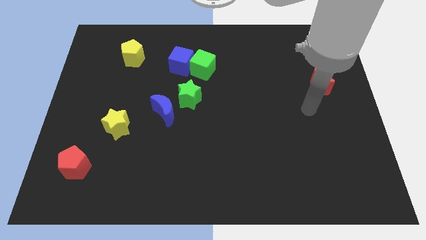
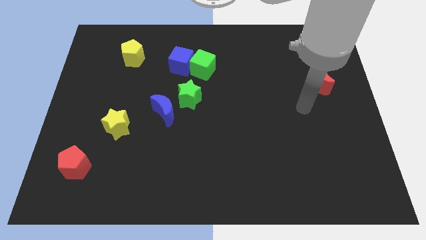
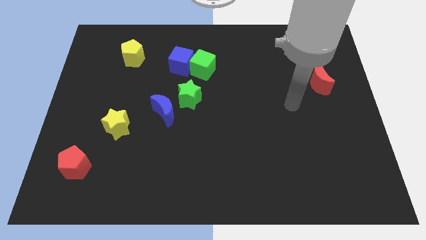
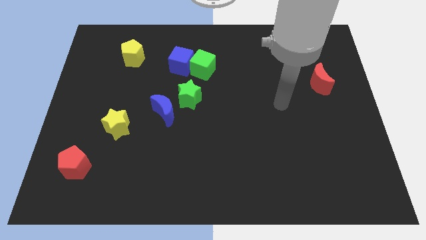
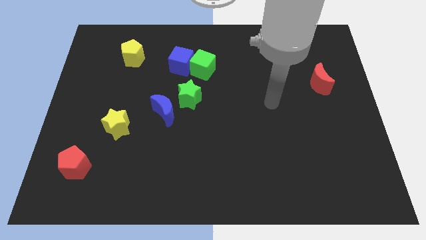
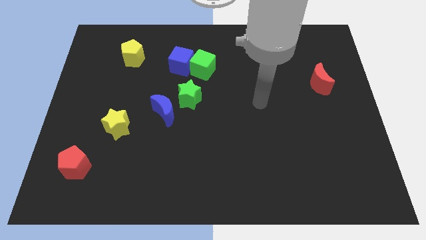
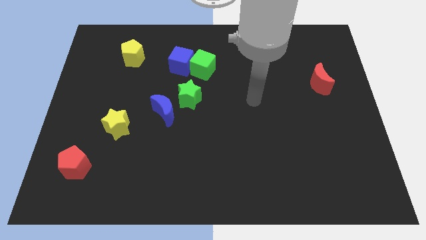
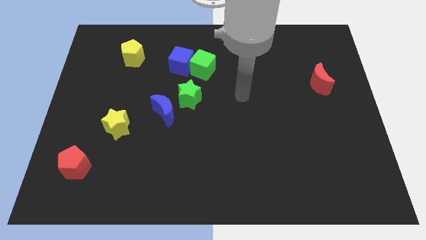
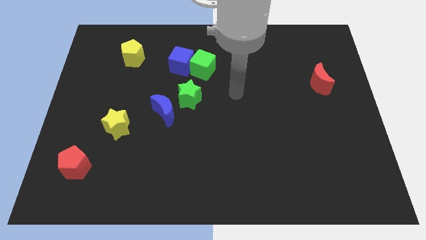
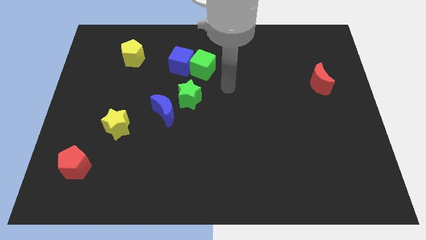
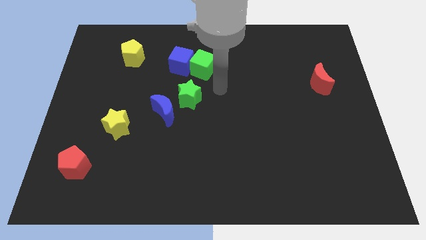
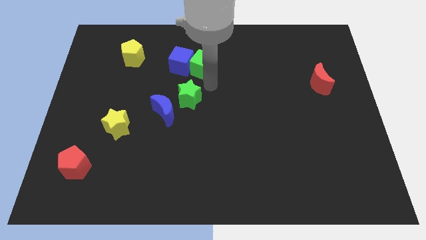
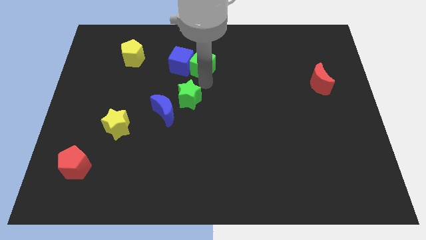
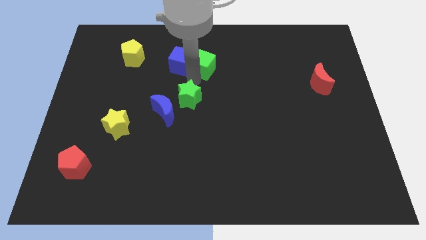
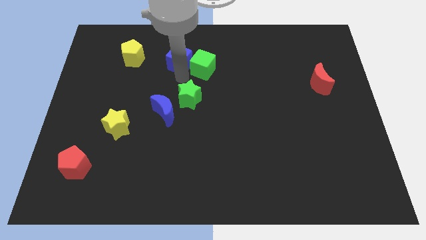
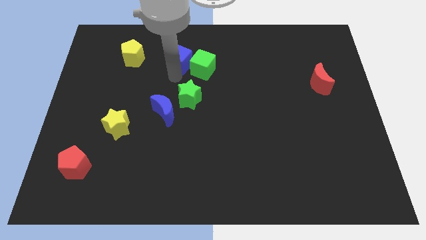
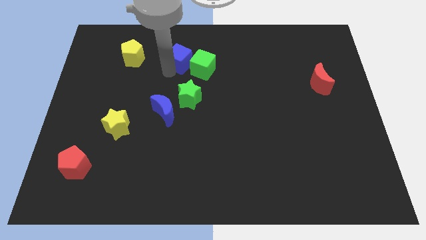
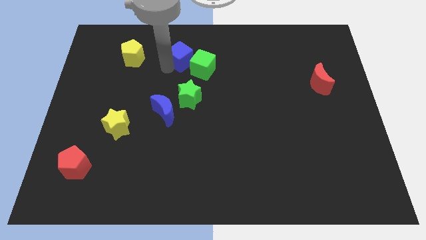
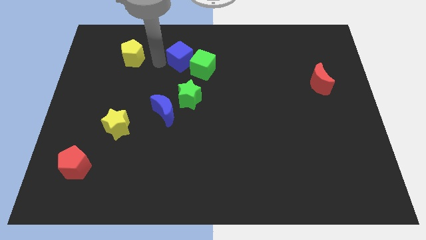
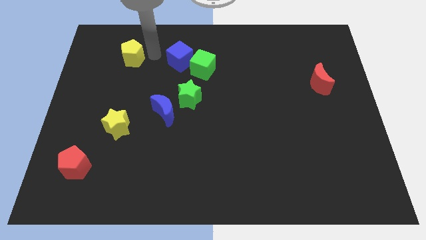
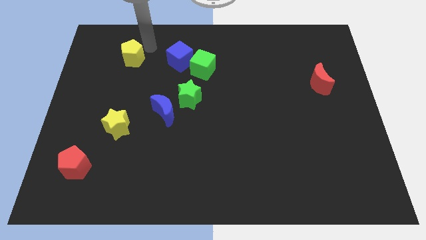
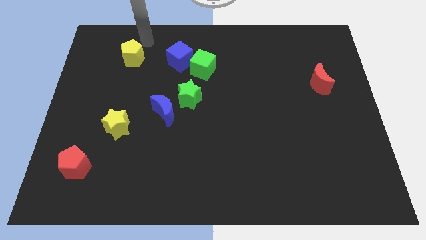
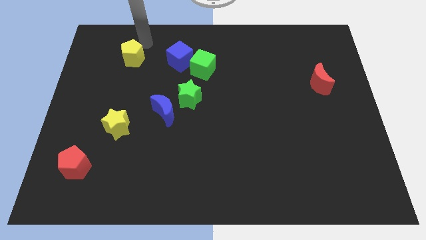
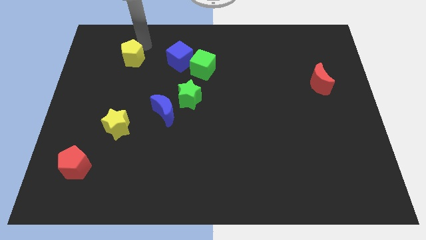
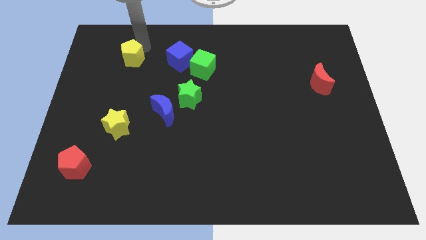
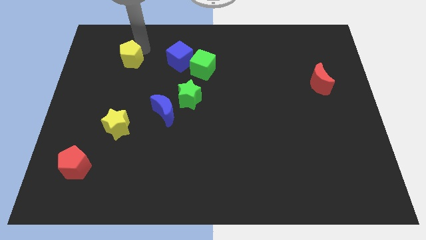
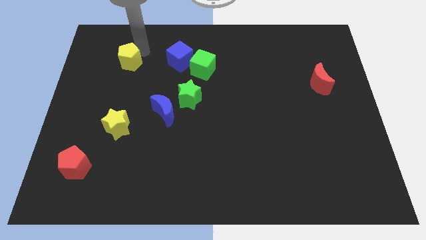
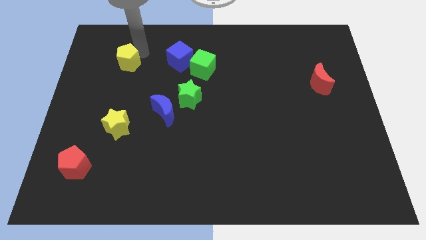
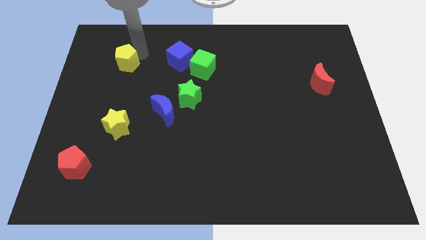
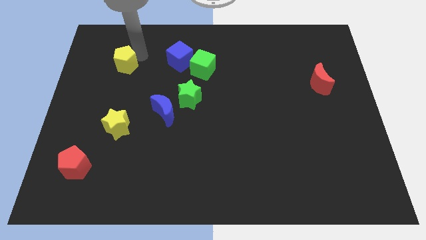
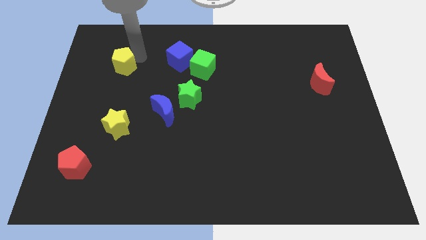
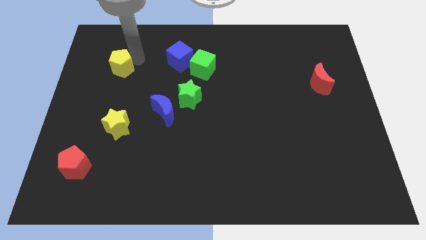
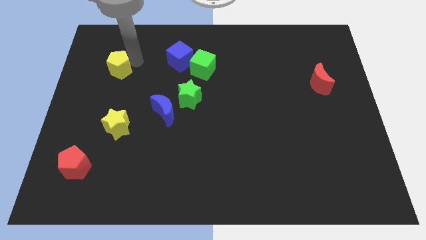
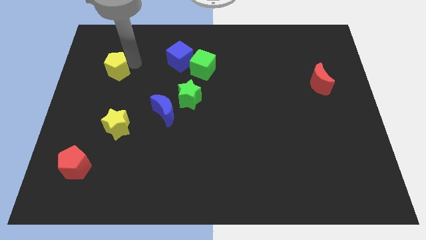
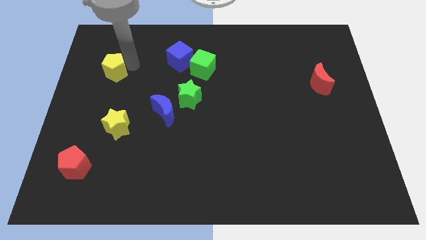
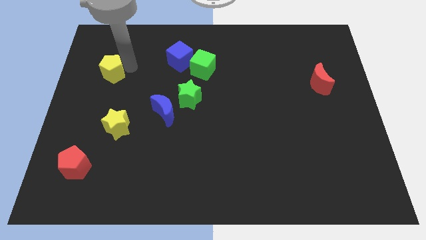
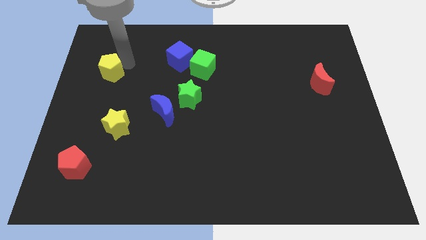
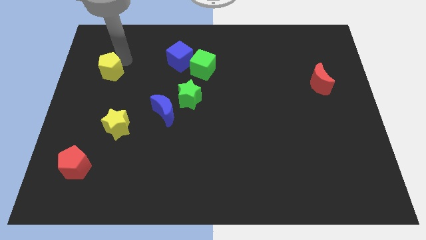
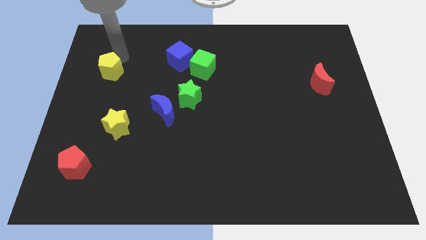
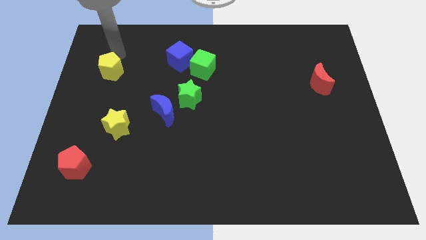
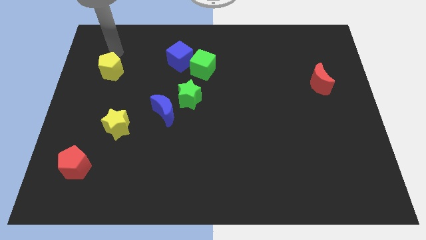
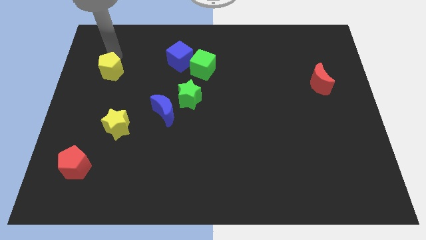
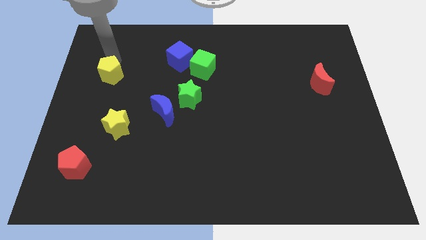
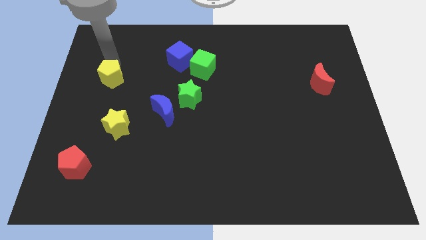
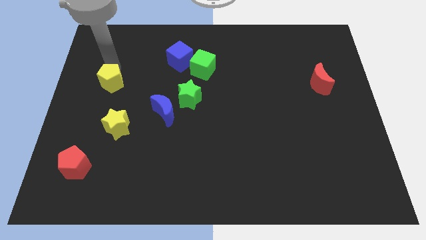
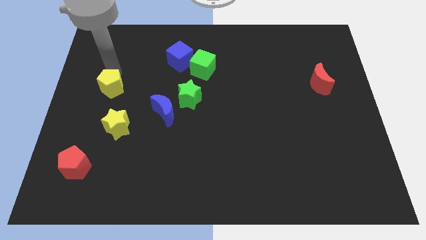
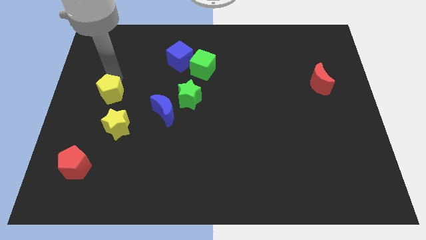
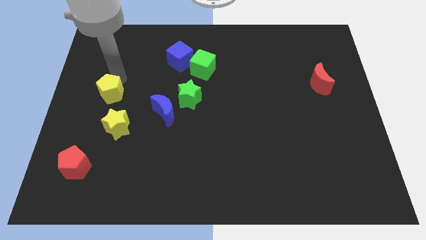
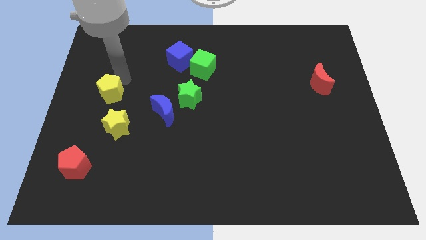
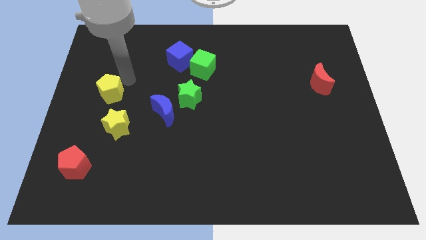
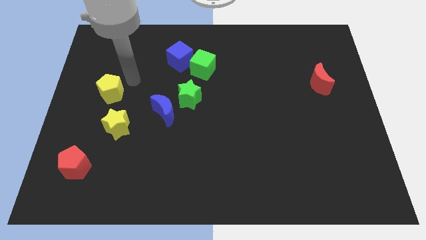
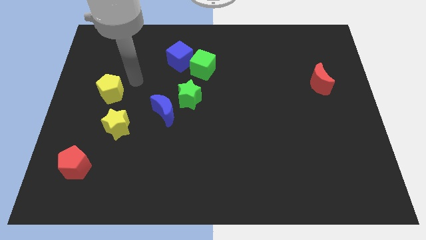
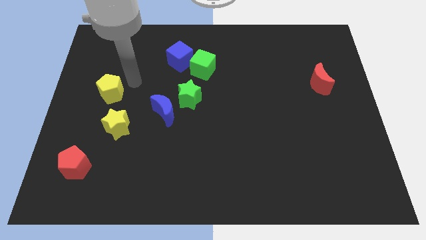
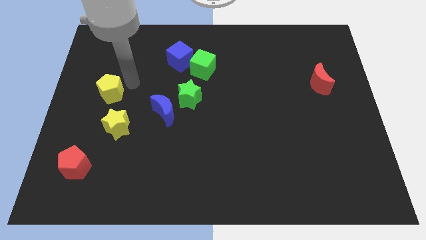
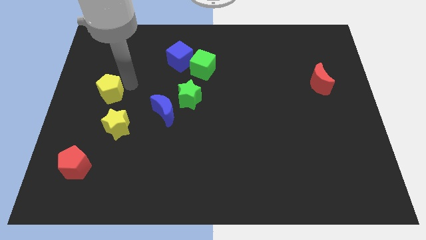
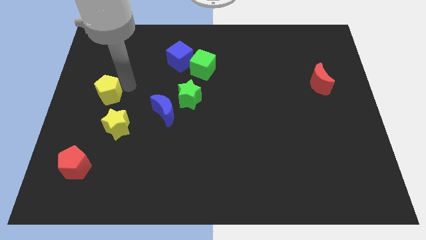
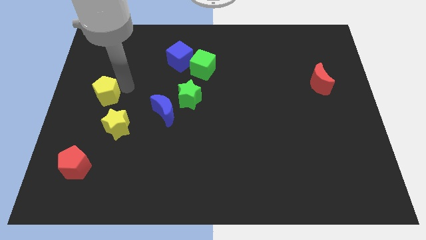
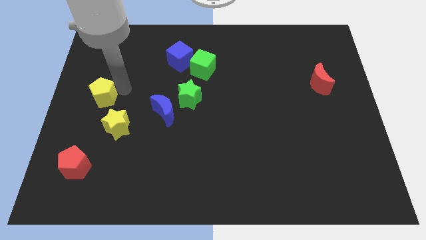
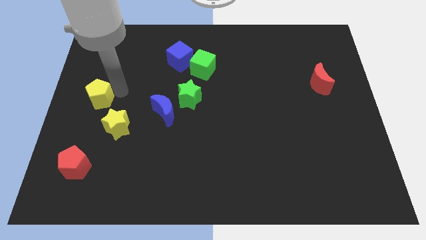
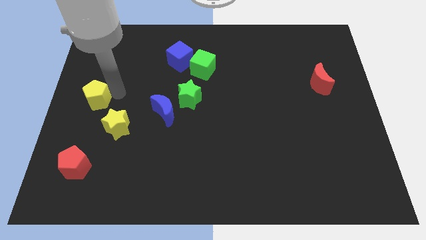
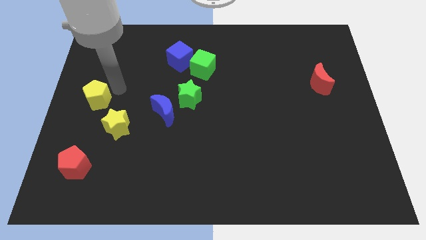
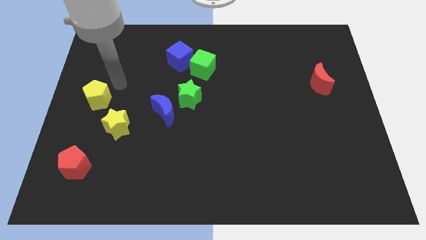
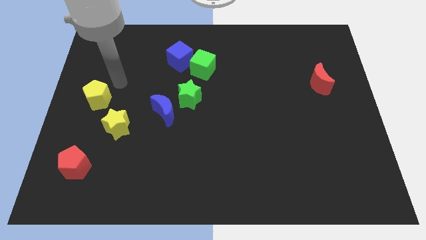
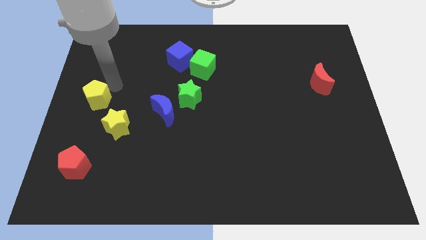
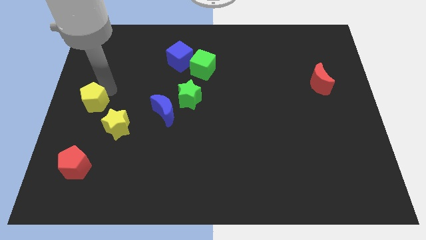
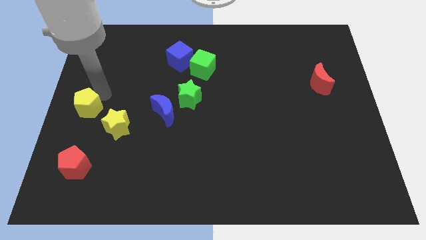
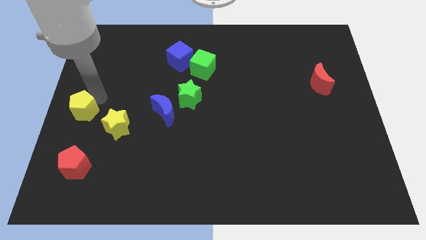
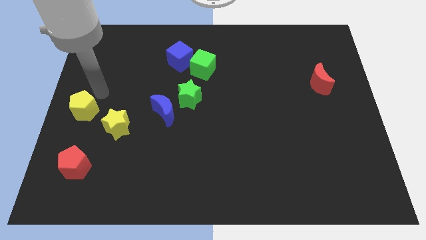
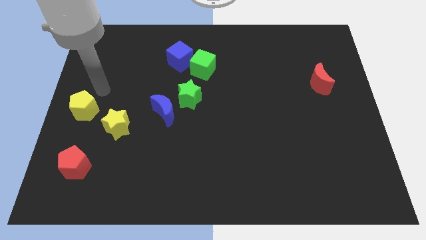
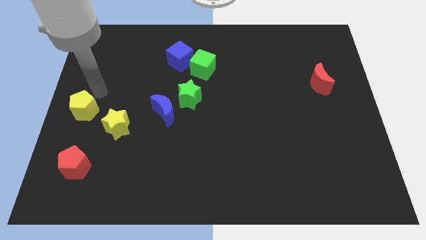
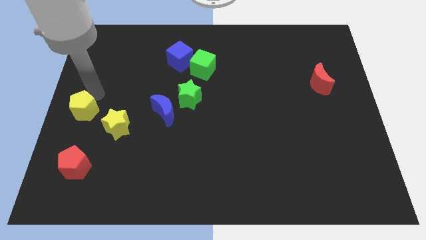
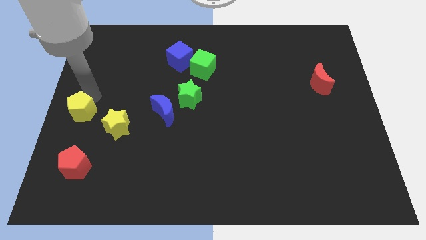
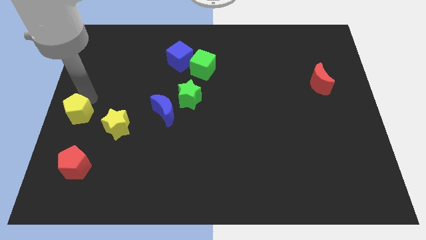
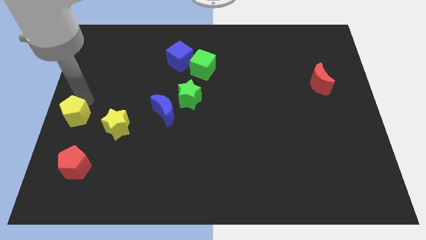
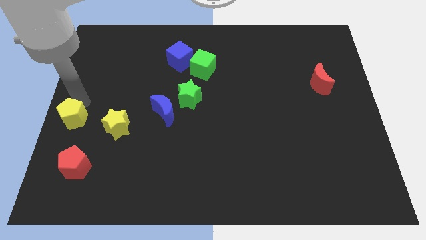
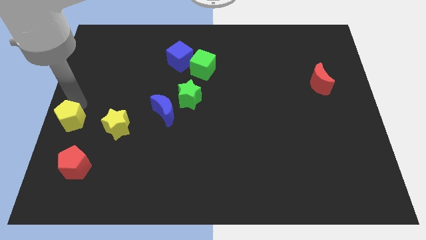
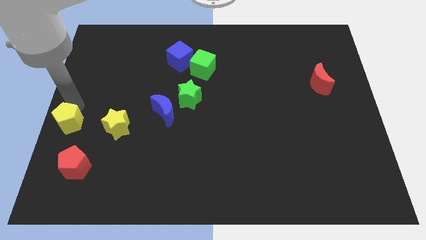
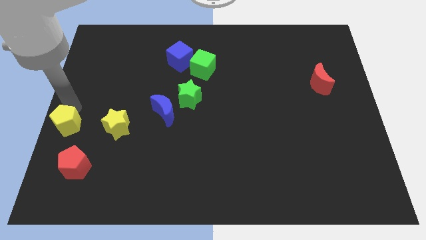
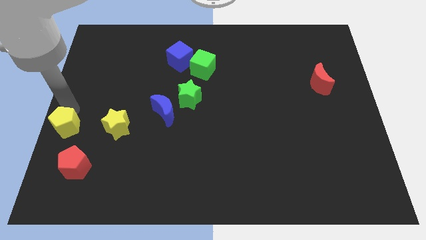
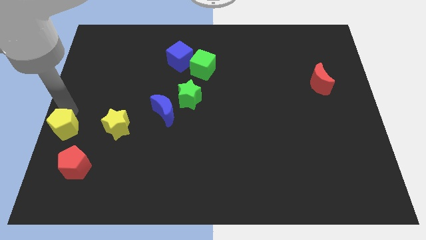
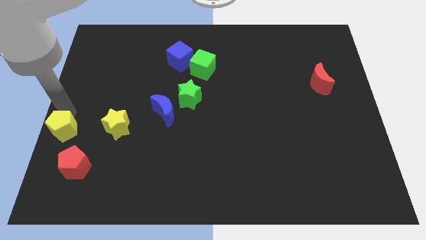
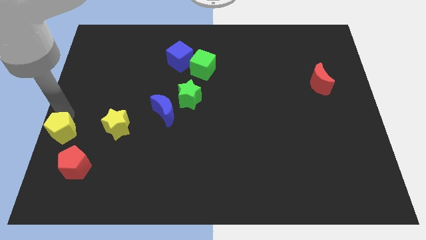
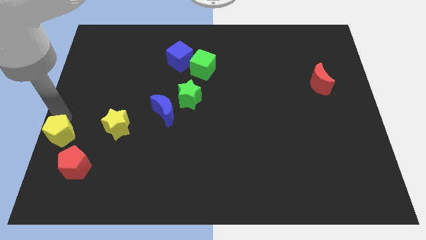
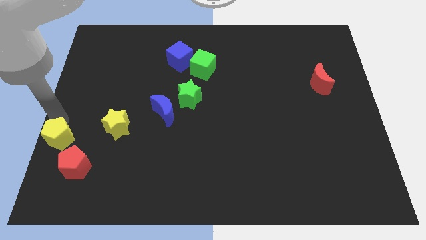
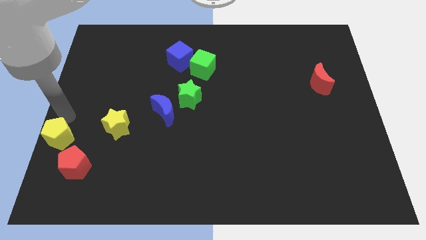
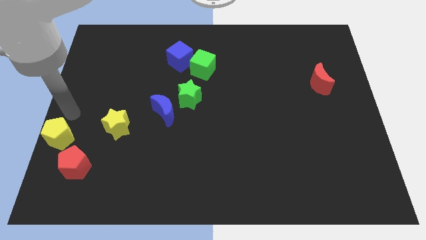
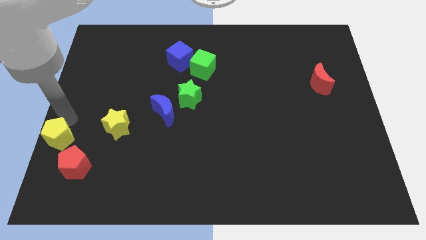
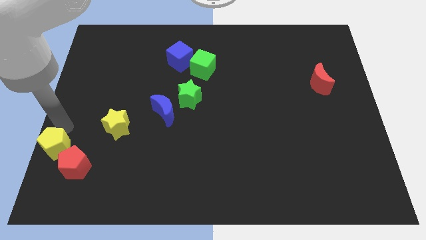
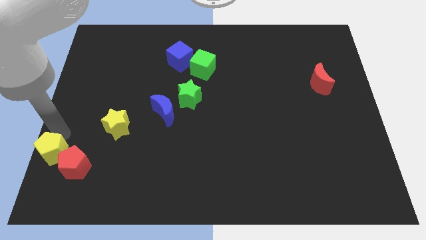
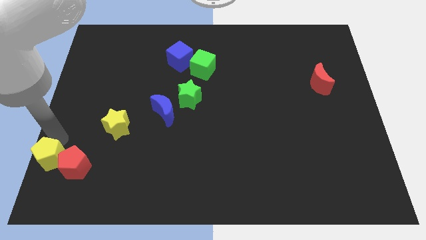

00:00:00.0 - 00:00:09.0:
slide the yellow pentagon to the bottom left
